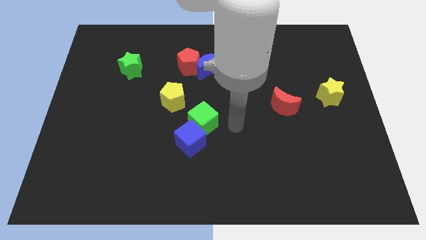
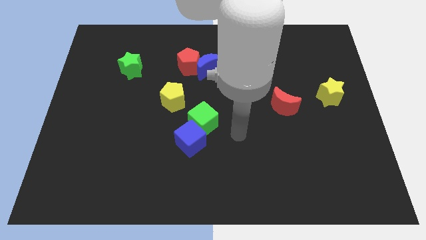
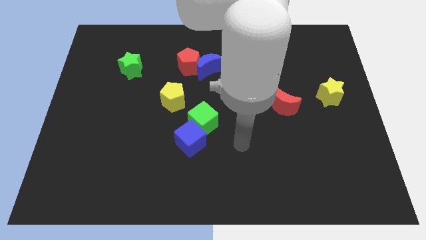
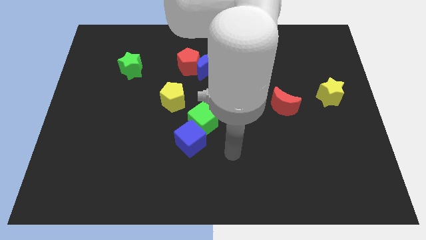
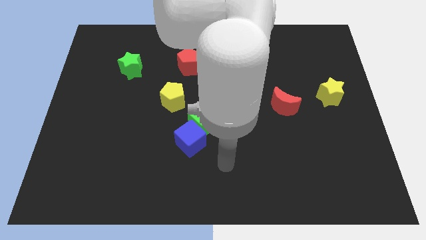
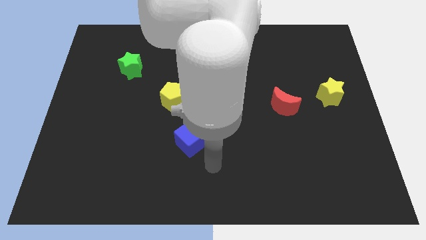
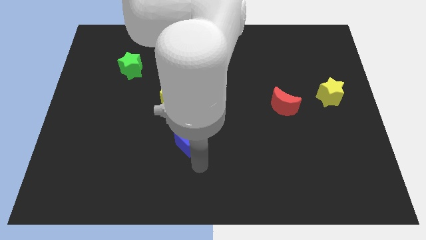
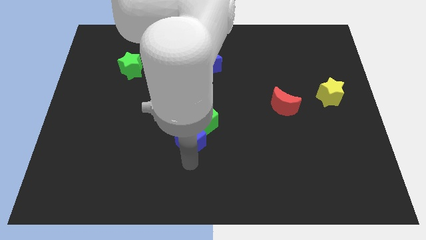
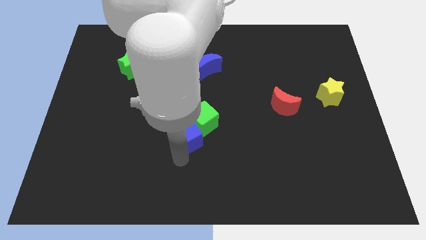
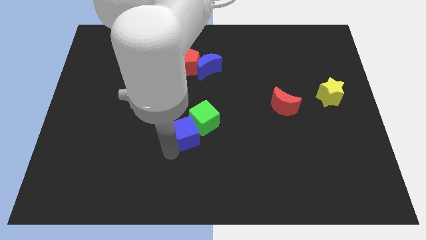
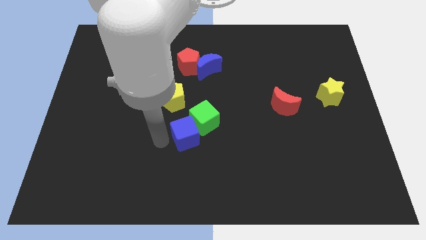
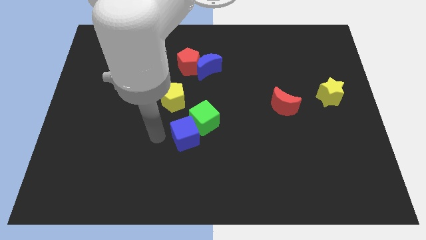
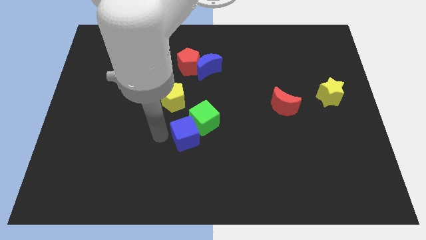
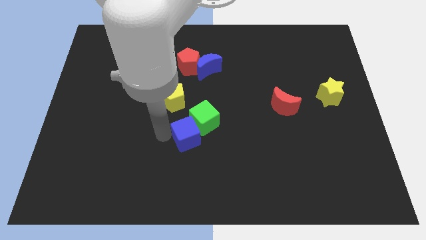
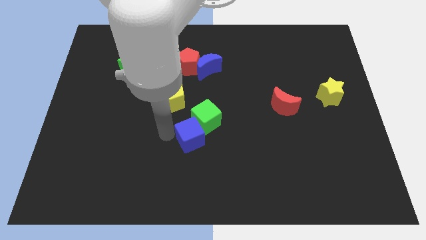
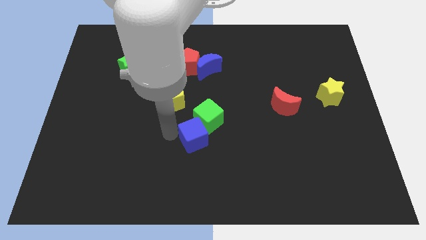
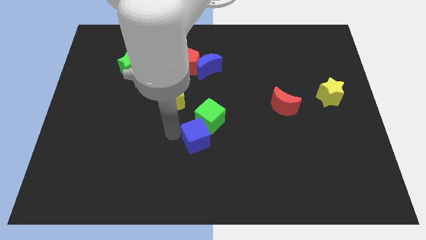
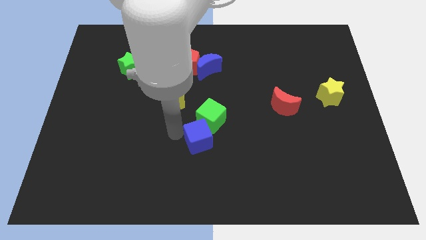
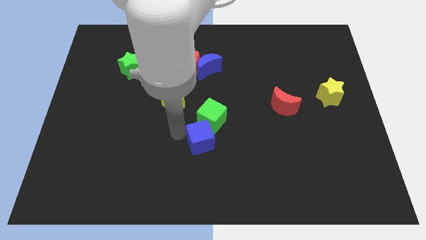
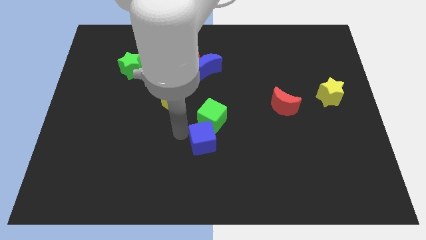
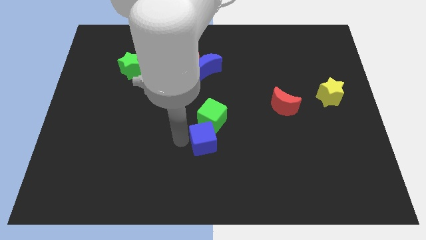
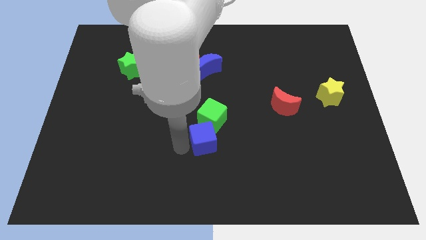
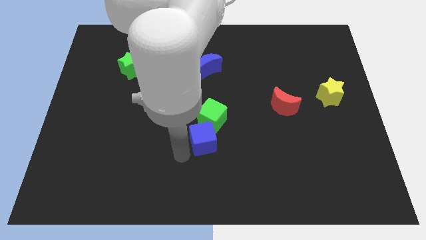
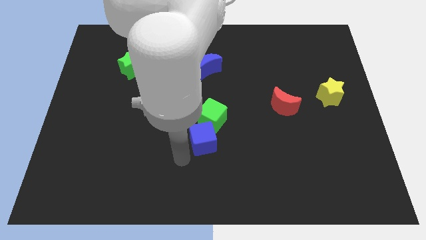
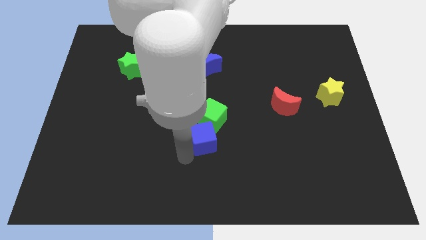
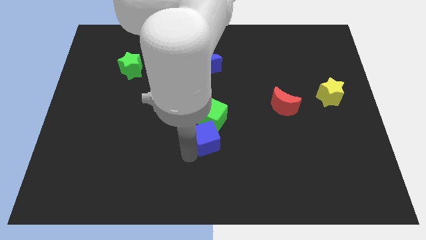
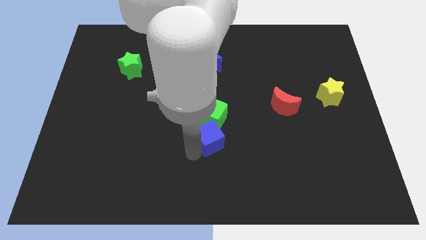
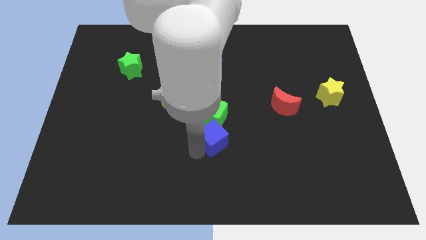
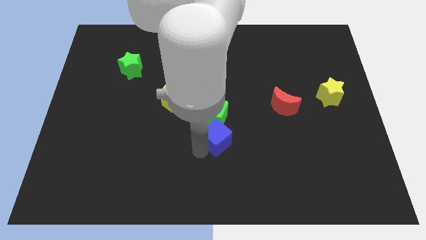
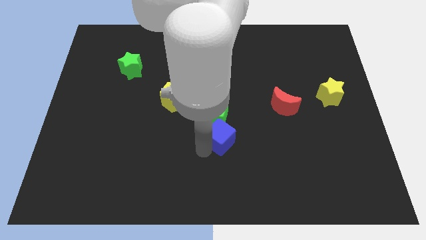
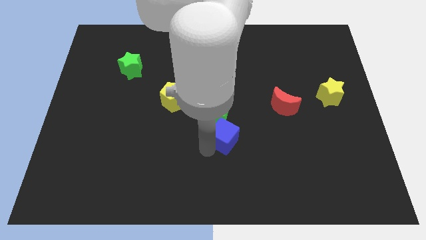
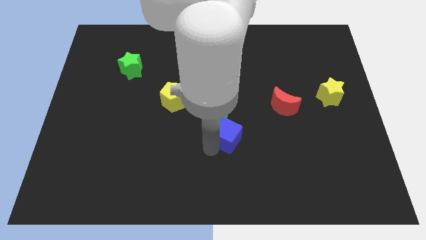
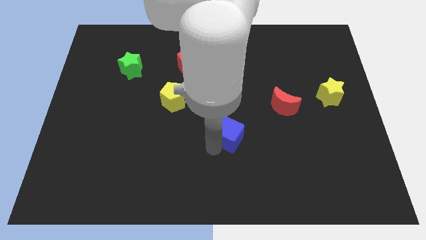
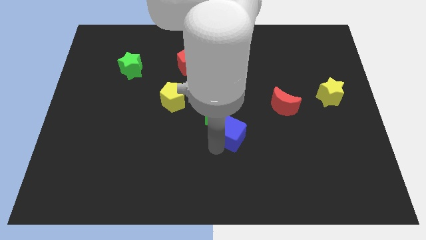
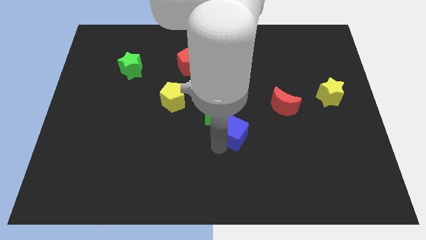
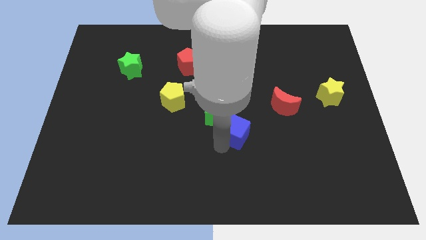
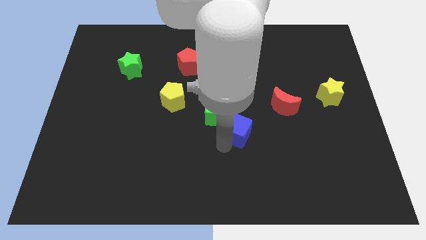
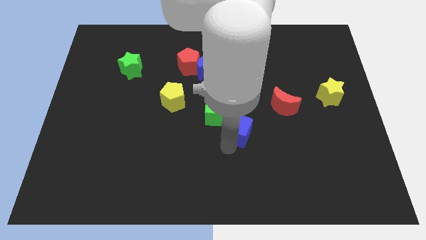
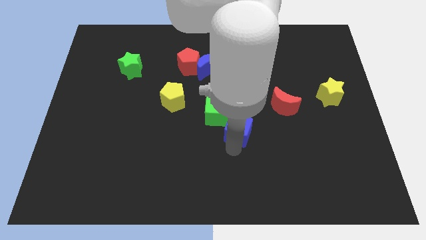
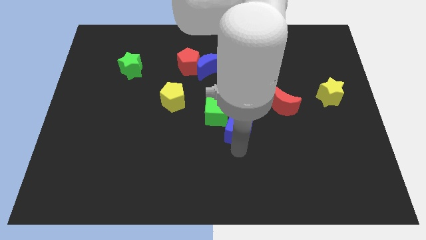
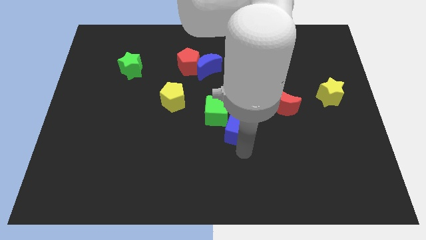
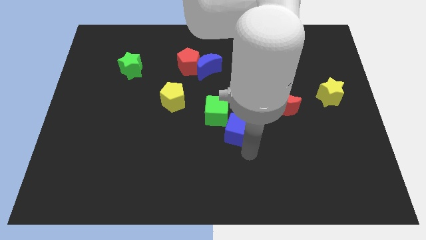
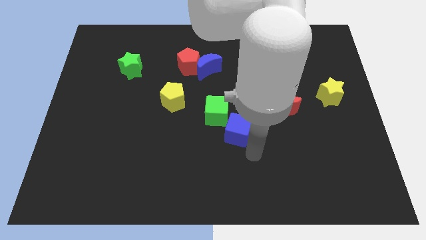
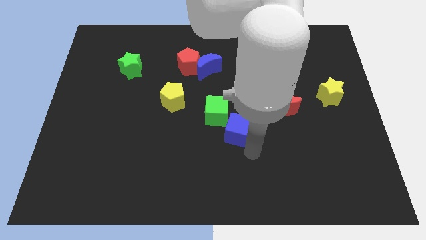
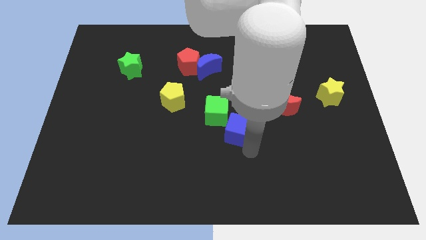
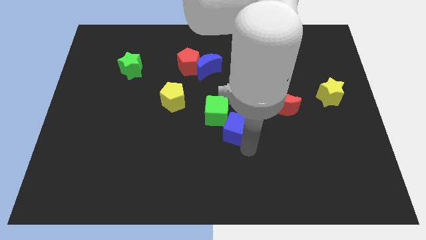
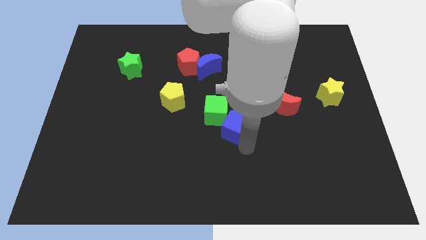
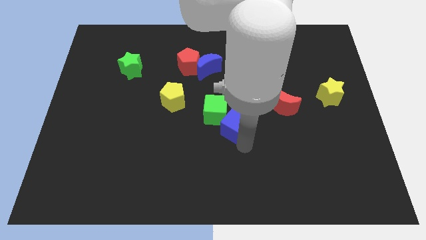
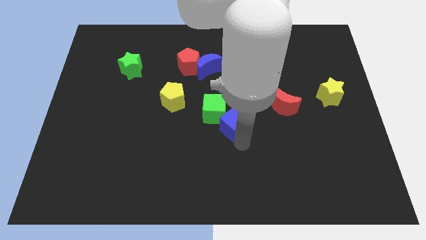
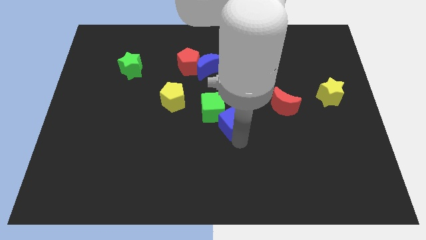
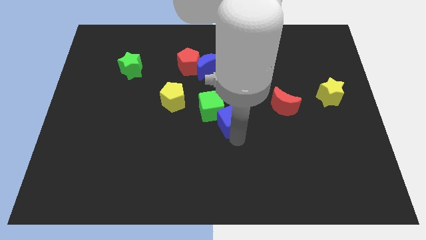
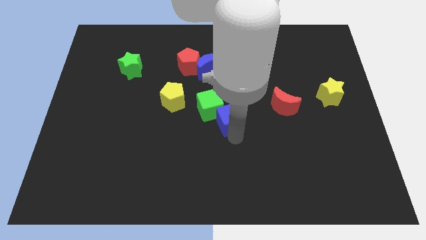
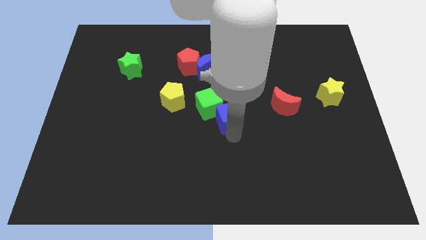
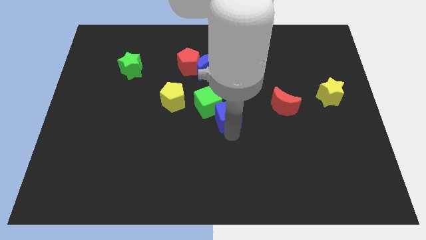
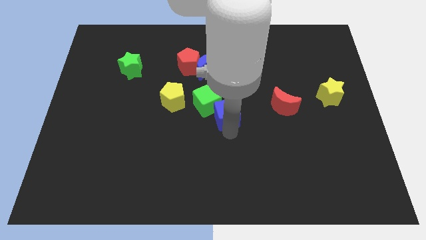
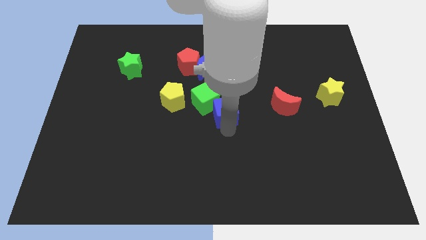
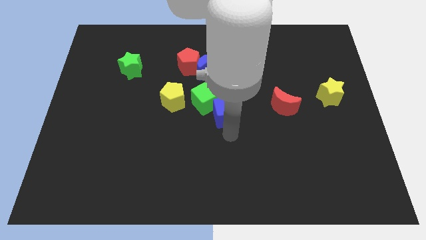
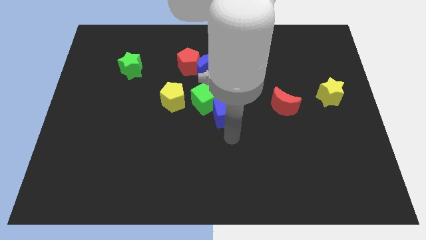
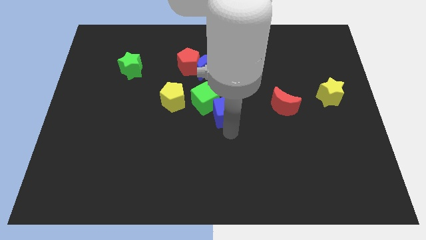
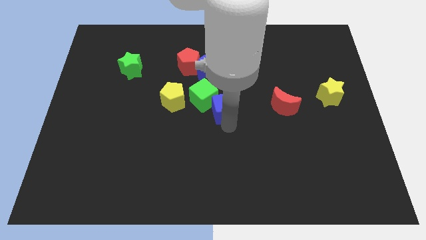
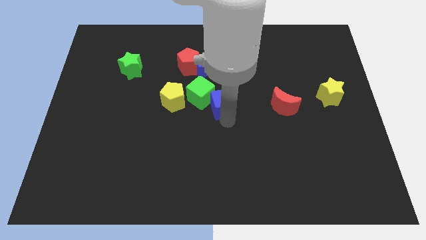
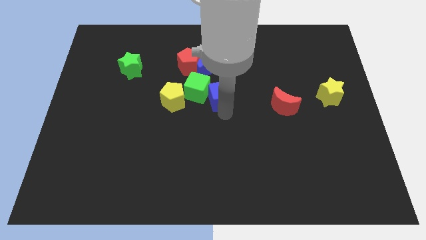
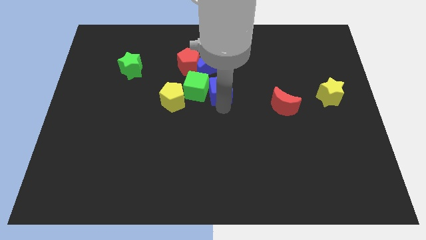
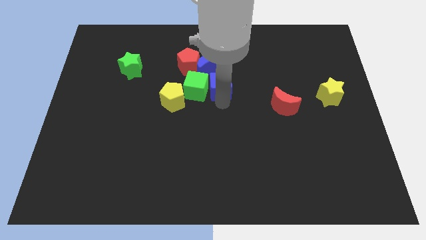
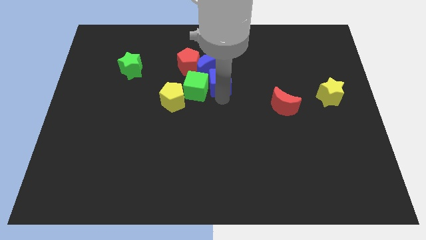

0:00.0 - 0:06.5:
slide the blue cube towards the blue moon
